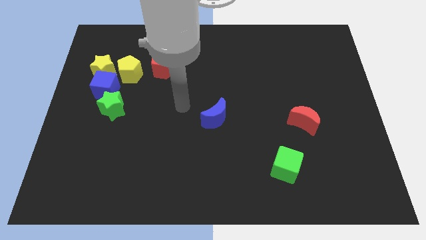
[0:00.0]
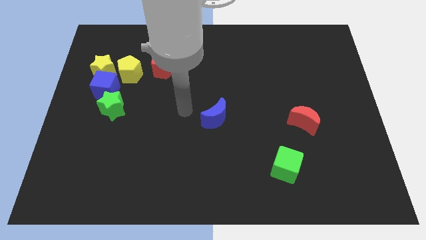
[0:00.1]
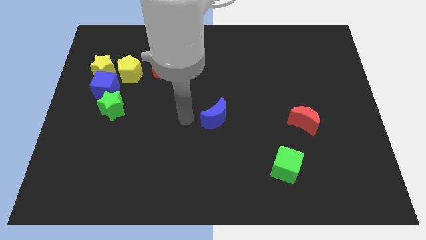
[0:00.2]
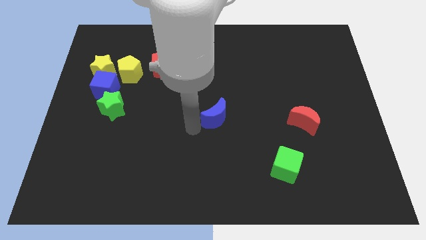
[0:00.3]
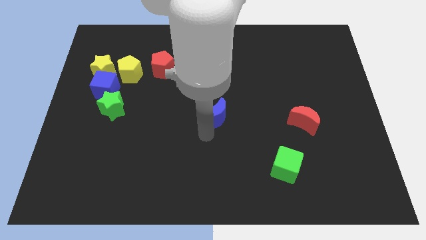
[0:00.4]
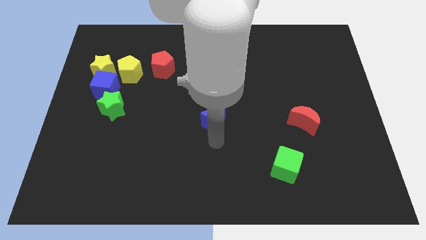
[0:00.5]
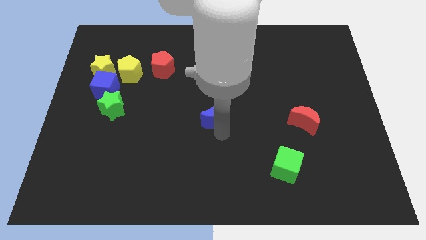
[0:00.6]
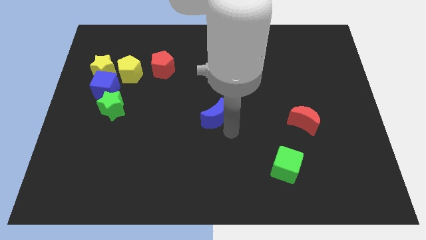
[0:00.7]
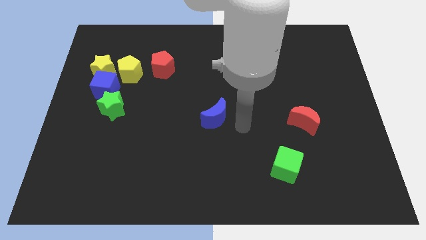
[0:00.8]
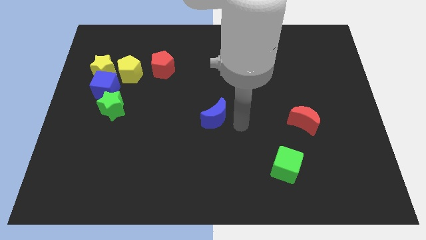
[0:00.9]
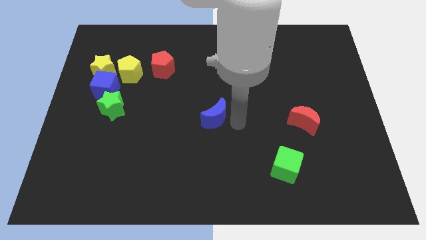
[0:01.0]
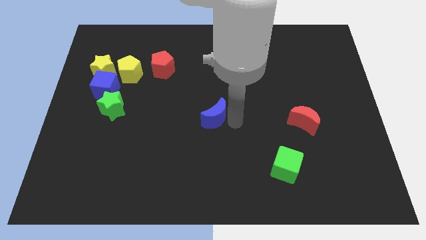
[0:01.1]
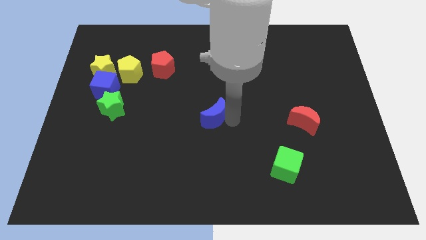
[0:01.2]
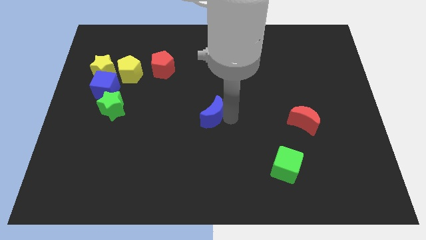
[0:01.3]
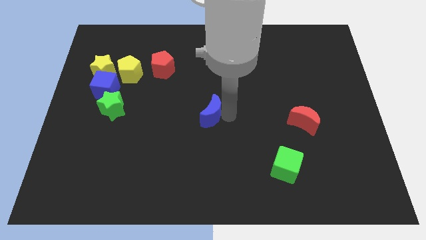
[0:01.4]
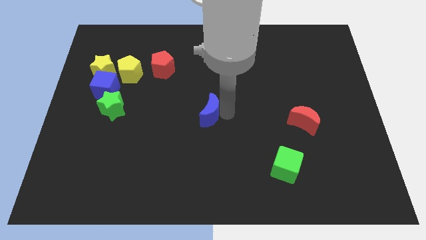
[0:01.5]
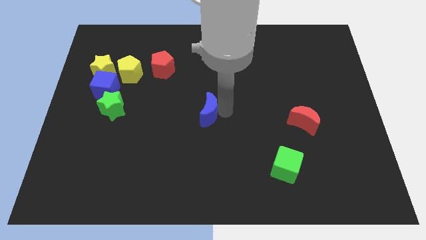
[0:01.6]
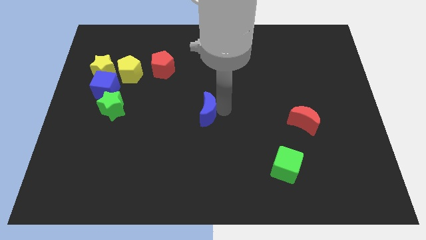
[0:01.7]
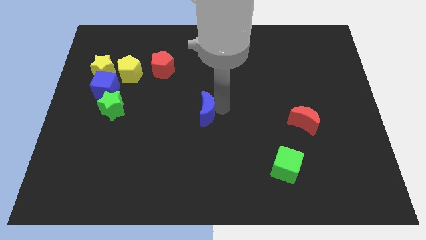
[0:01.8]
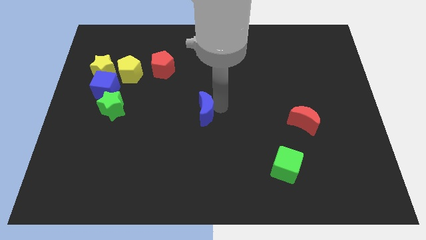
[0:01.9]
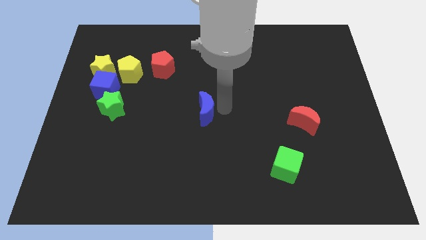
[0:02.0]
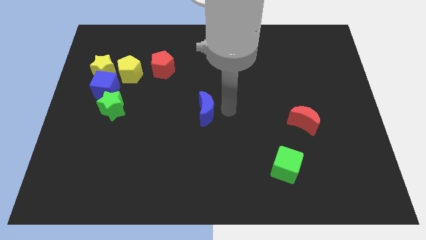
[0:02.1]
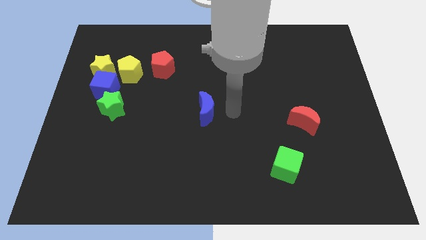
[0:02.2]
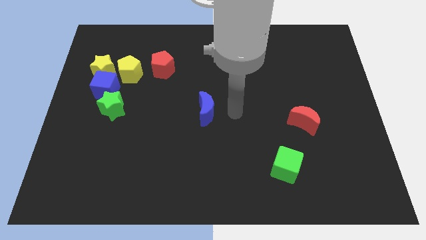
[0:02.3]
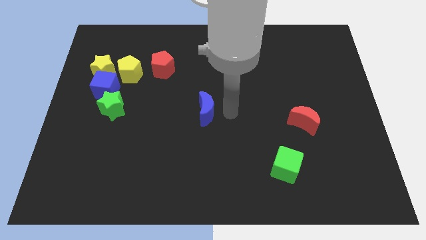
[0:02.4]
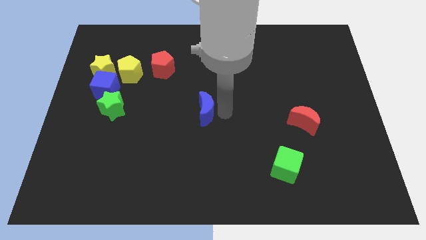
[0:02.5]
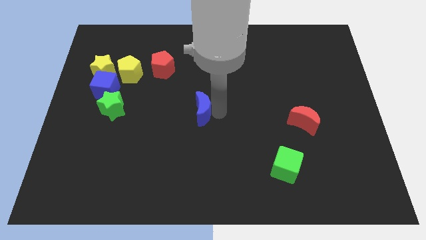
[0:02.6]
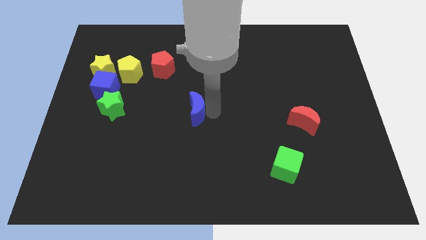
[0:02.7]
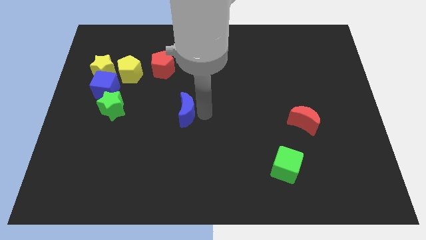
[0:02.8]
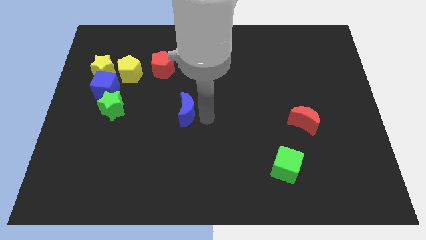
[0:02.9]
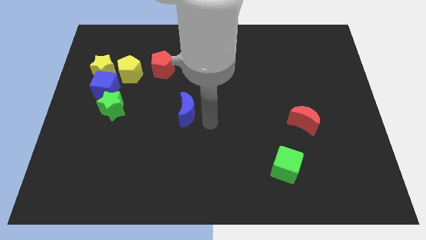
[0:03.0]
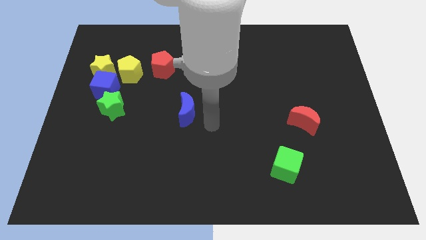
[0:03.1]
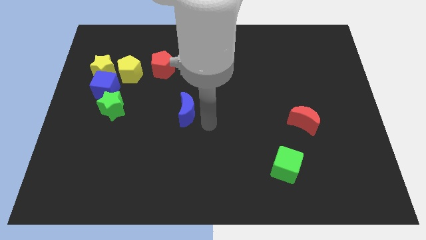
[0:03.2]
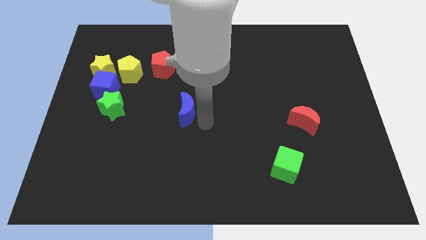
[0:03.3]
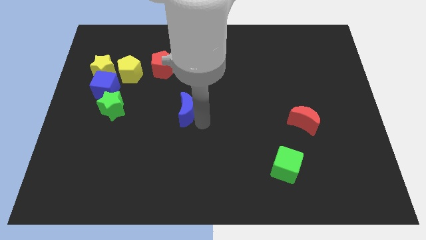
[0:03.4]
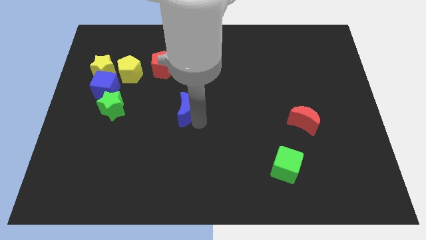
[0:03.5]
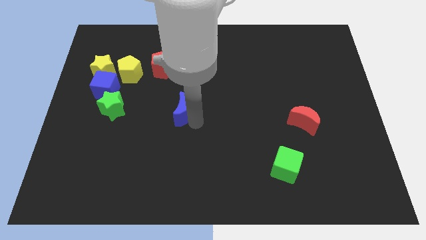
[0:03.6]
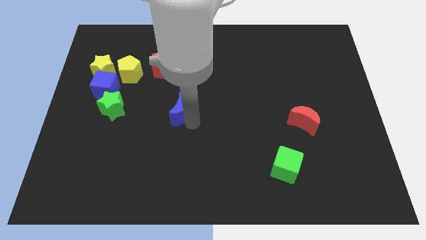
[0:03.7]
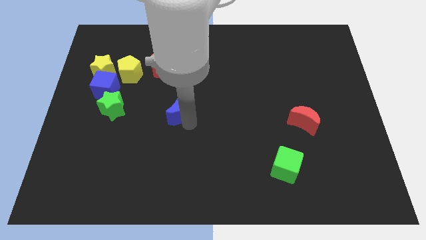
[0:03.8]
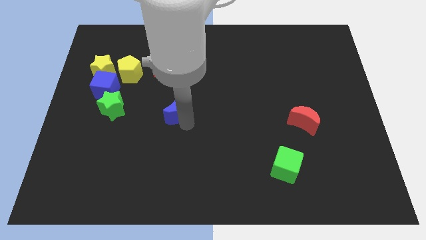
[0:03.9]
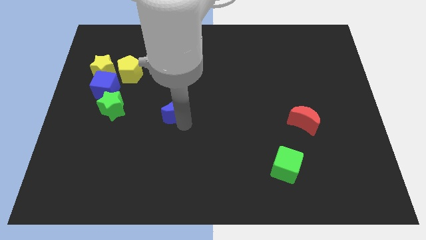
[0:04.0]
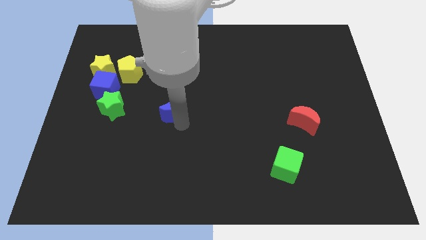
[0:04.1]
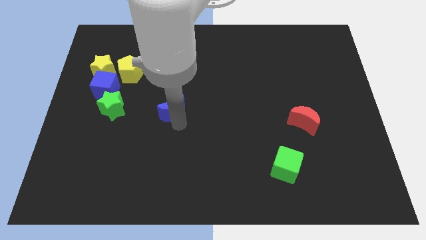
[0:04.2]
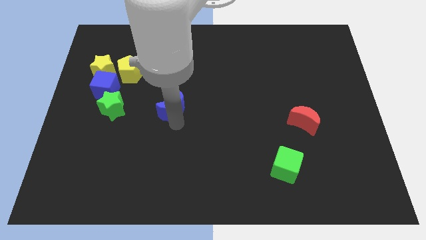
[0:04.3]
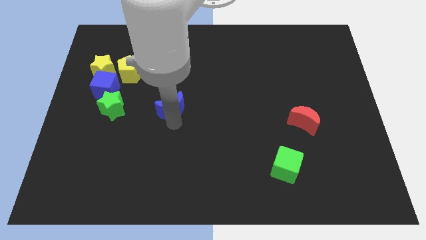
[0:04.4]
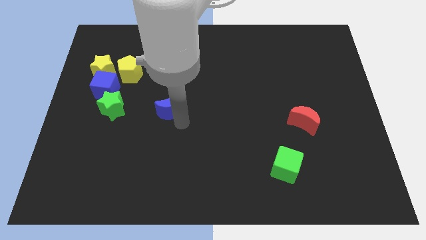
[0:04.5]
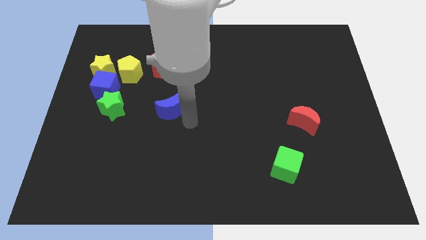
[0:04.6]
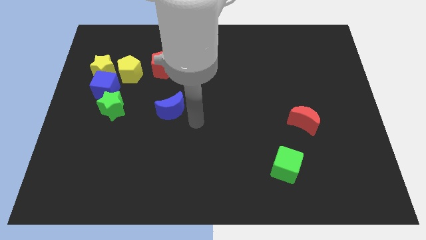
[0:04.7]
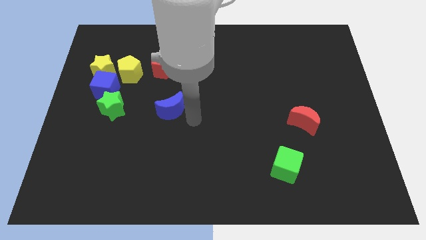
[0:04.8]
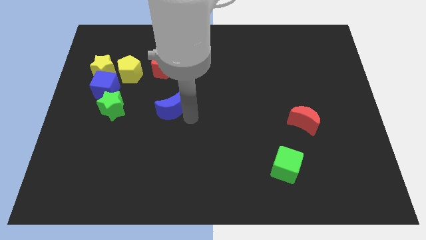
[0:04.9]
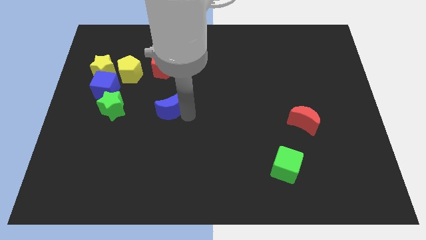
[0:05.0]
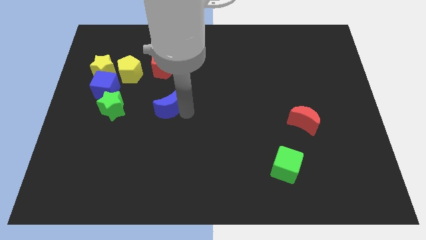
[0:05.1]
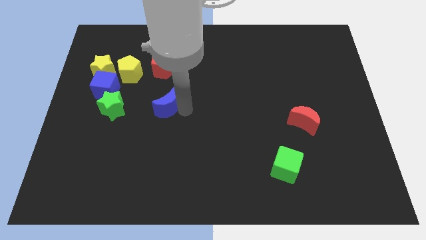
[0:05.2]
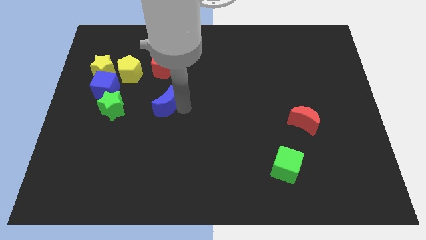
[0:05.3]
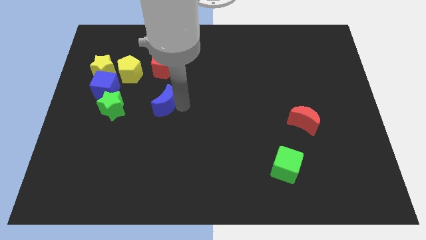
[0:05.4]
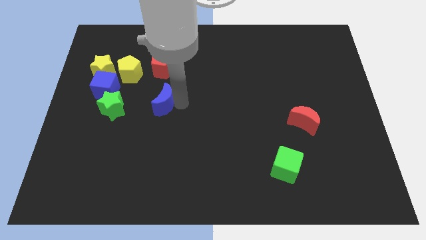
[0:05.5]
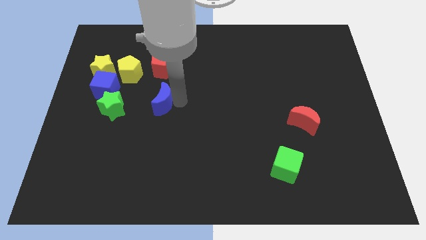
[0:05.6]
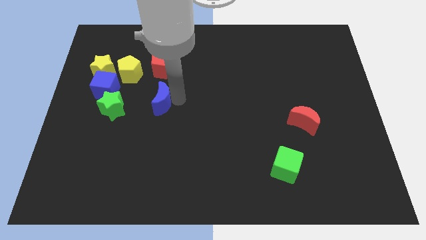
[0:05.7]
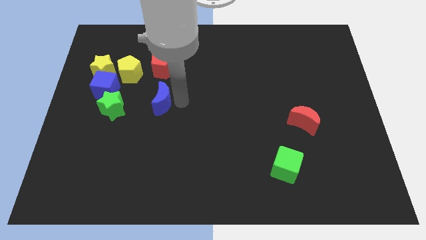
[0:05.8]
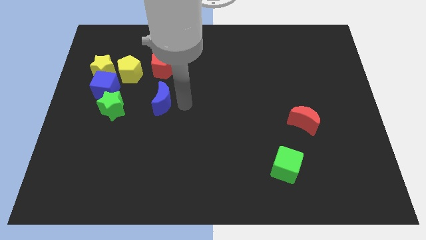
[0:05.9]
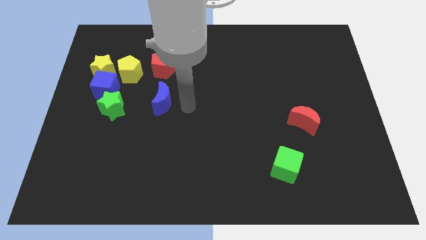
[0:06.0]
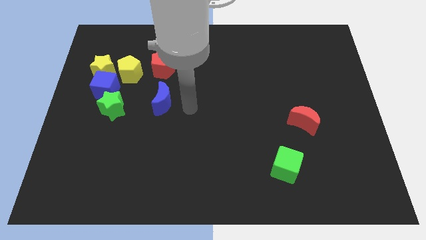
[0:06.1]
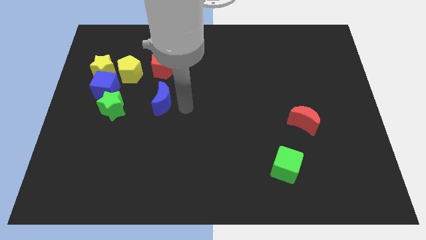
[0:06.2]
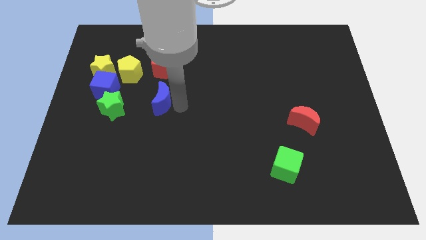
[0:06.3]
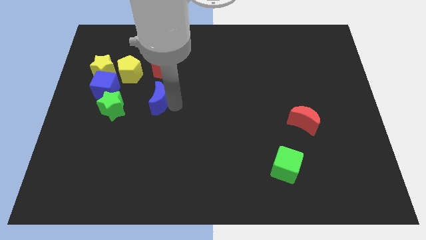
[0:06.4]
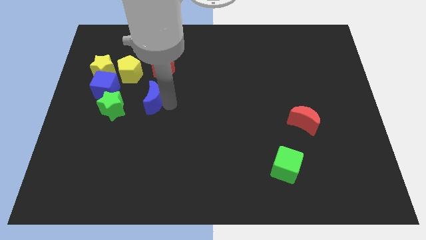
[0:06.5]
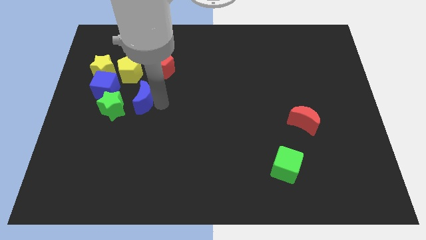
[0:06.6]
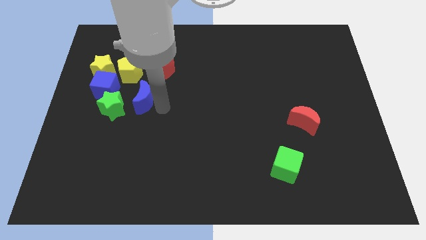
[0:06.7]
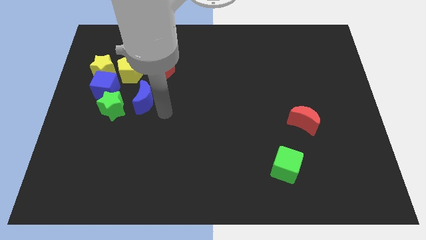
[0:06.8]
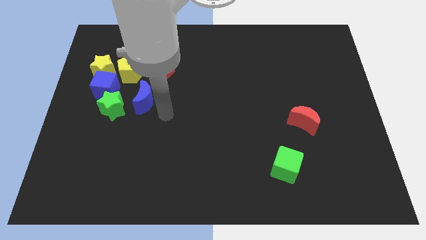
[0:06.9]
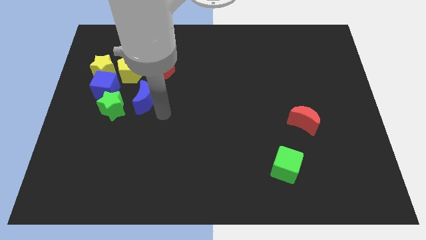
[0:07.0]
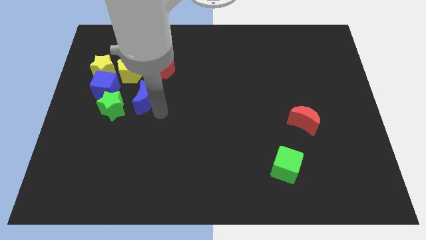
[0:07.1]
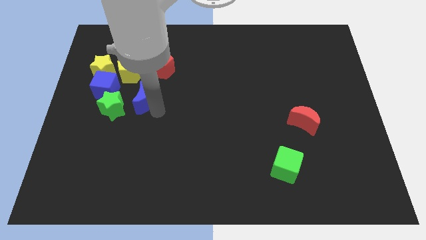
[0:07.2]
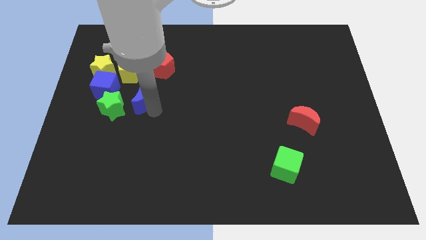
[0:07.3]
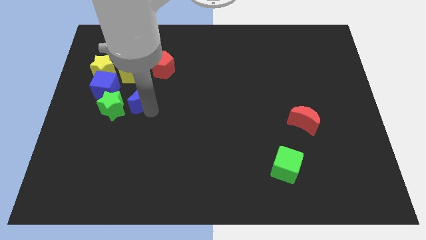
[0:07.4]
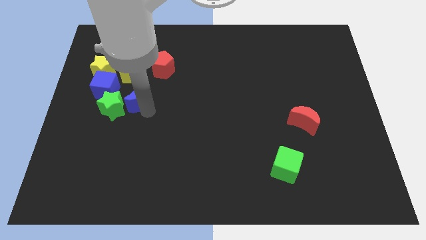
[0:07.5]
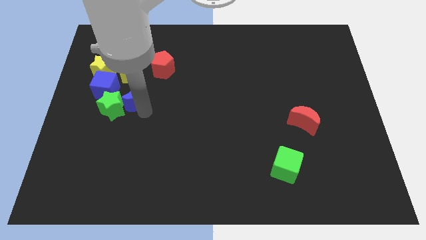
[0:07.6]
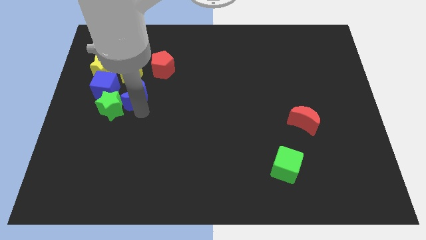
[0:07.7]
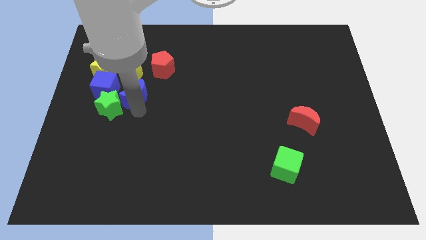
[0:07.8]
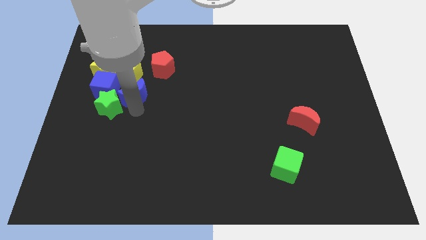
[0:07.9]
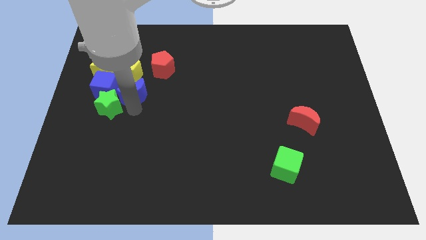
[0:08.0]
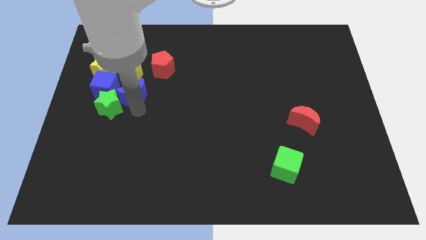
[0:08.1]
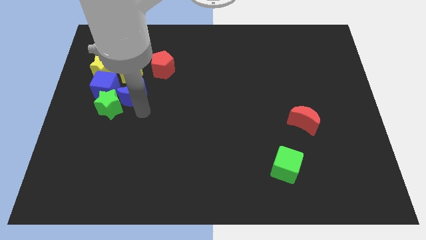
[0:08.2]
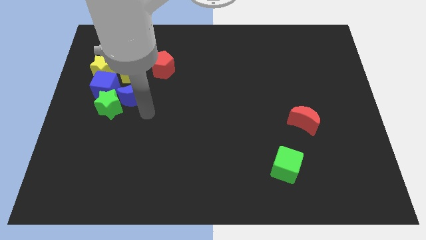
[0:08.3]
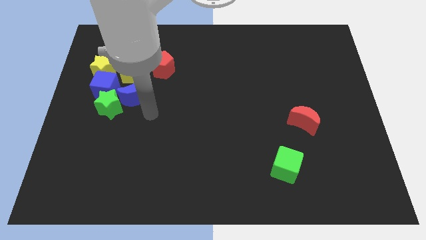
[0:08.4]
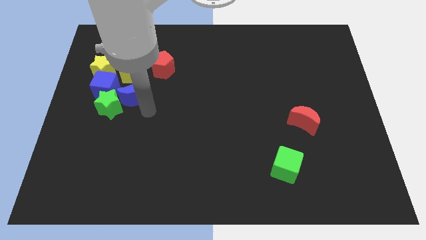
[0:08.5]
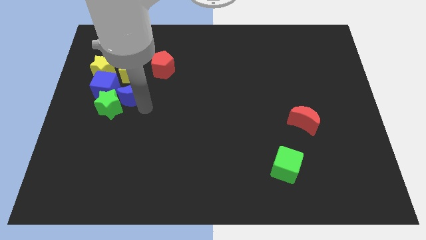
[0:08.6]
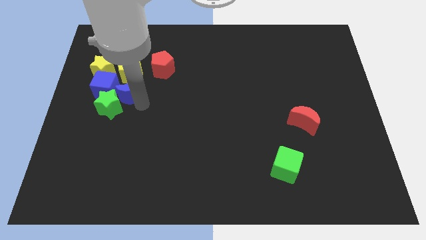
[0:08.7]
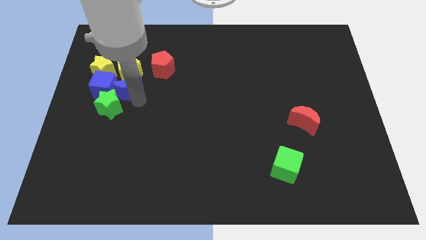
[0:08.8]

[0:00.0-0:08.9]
push the blue moon to the blue cube
